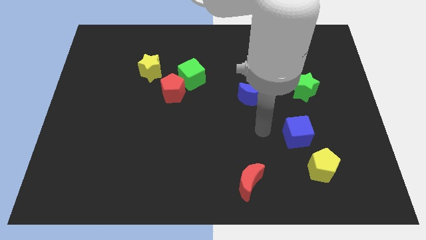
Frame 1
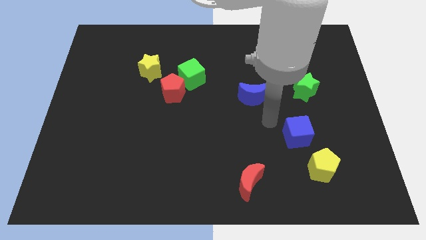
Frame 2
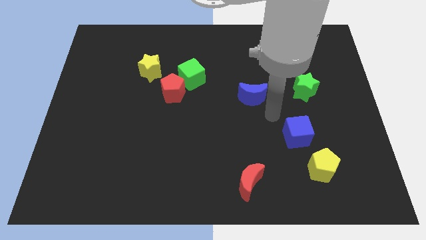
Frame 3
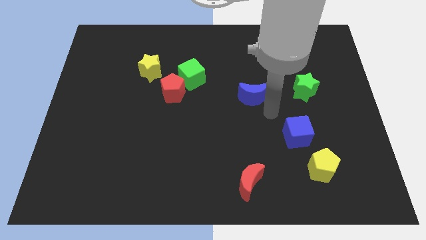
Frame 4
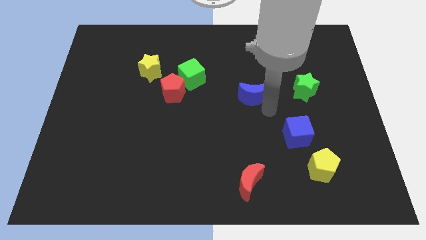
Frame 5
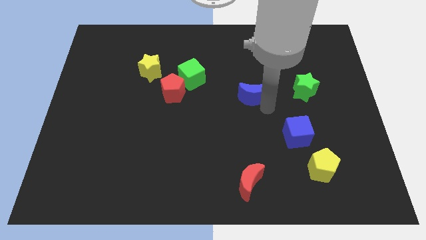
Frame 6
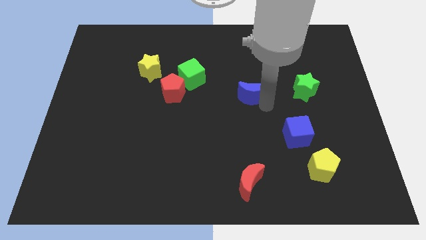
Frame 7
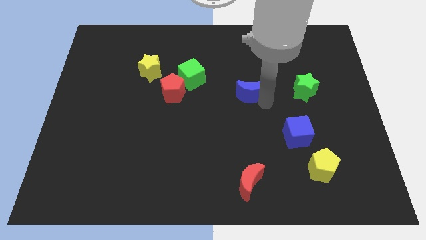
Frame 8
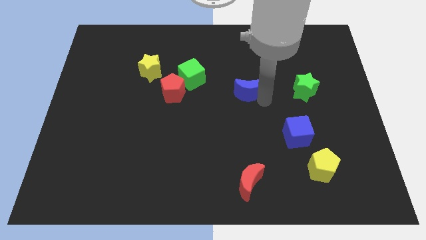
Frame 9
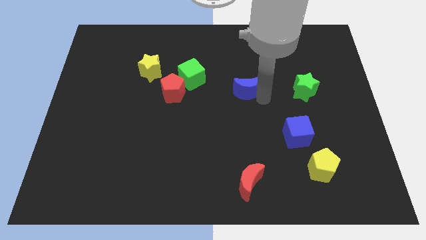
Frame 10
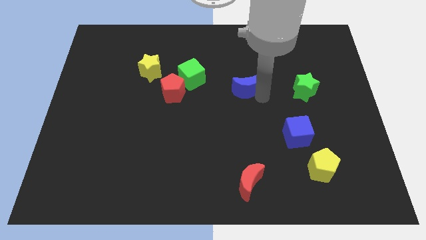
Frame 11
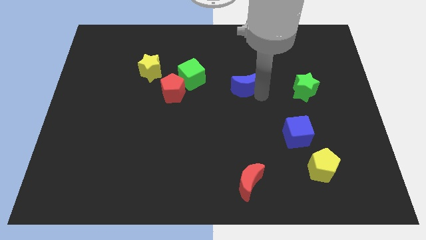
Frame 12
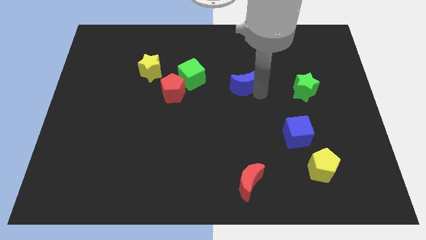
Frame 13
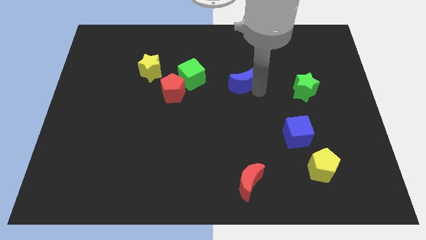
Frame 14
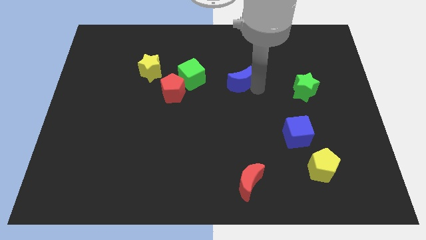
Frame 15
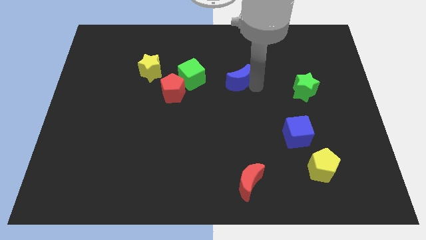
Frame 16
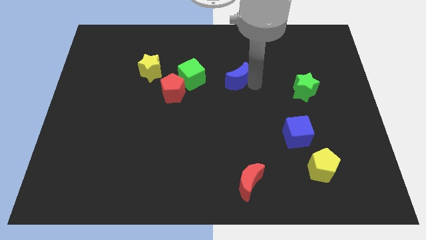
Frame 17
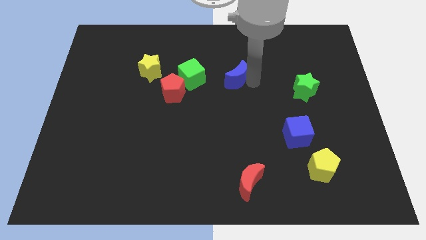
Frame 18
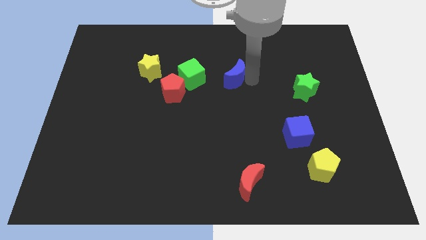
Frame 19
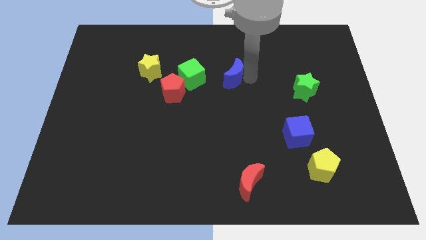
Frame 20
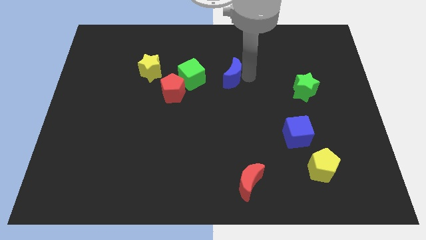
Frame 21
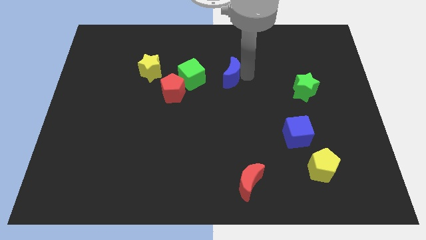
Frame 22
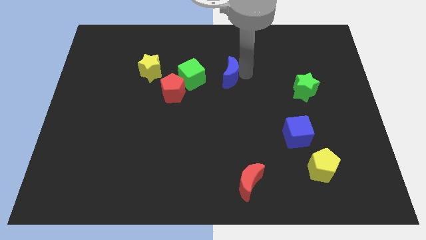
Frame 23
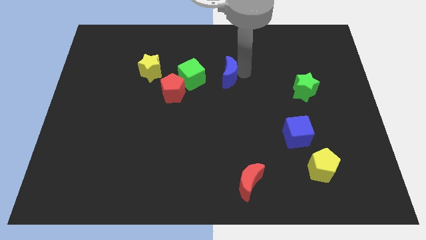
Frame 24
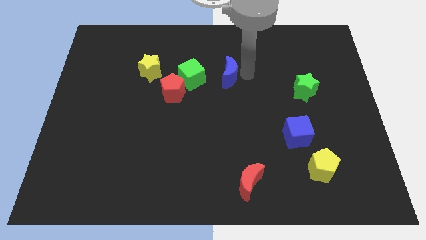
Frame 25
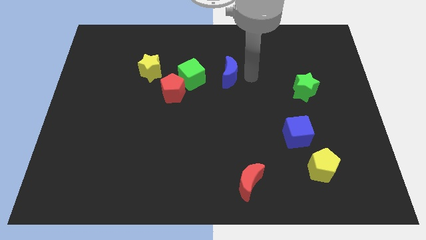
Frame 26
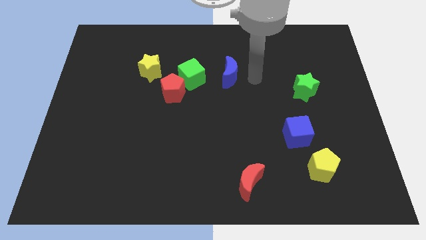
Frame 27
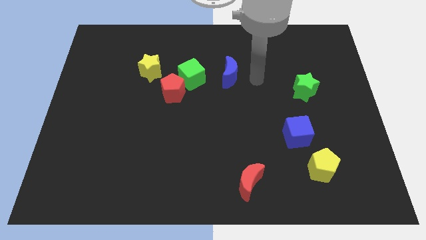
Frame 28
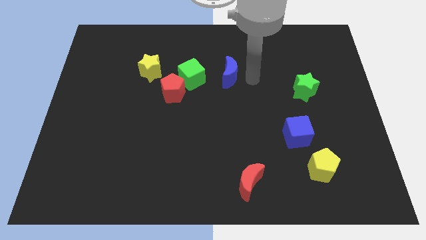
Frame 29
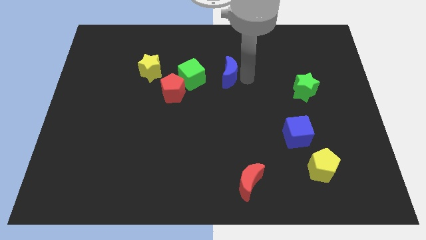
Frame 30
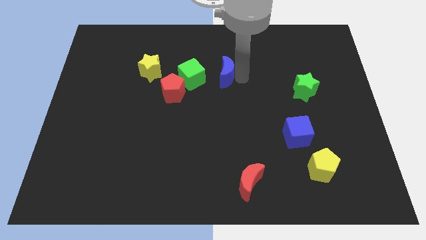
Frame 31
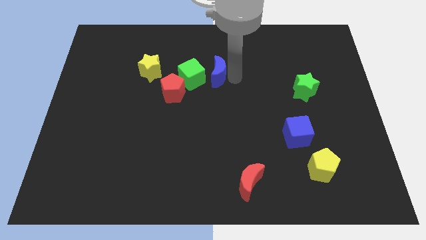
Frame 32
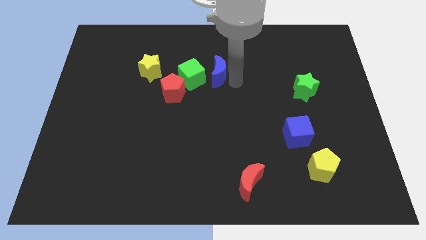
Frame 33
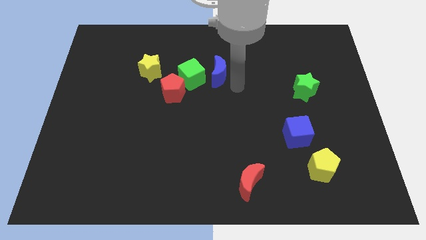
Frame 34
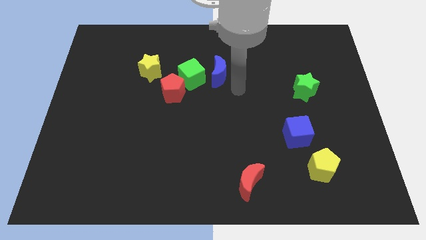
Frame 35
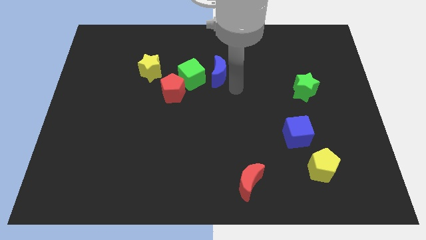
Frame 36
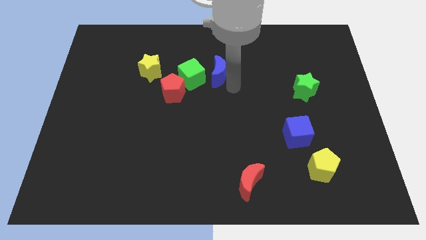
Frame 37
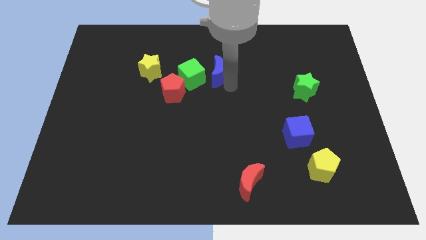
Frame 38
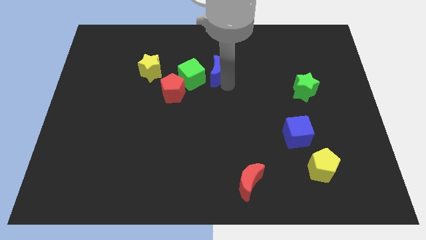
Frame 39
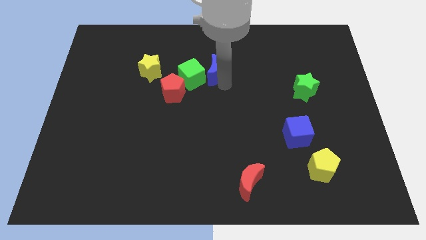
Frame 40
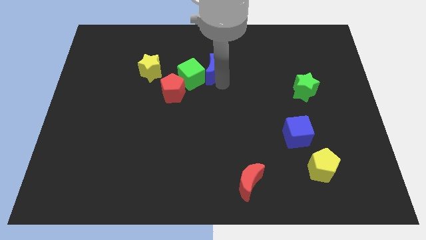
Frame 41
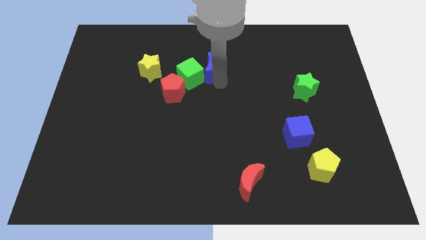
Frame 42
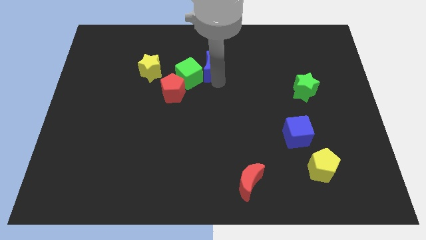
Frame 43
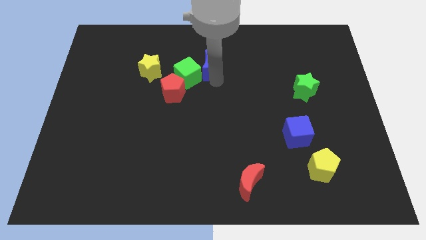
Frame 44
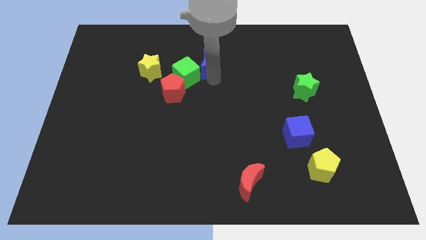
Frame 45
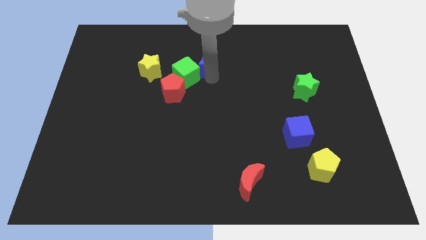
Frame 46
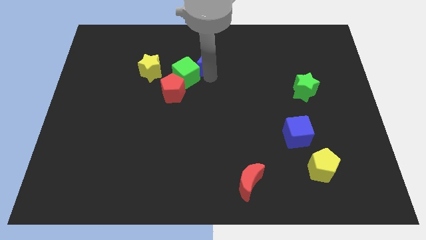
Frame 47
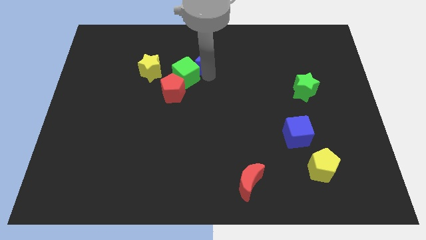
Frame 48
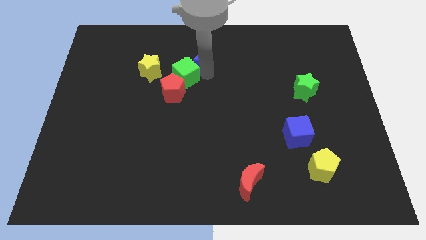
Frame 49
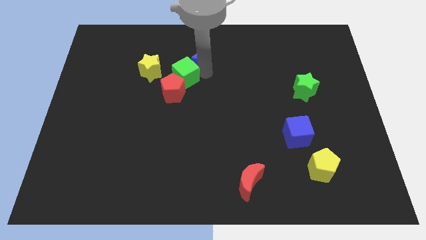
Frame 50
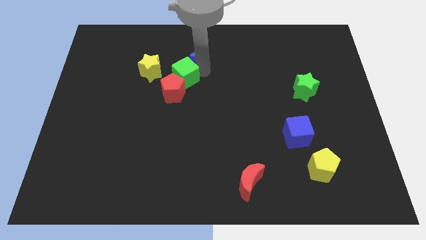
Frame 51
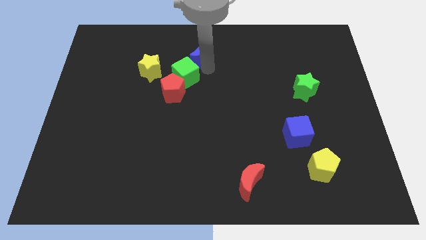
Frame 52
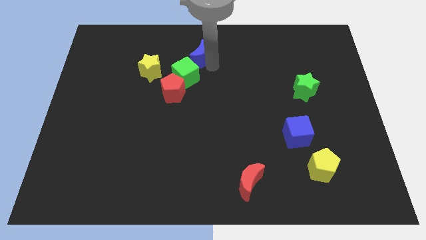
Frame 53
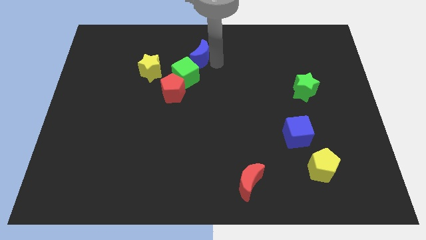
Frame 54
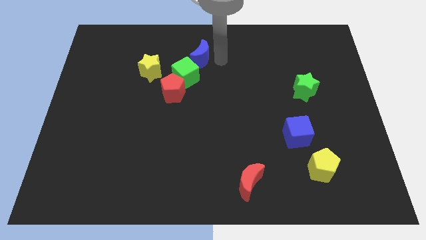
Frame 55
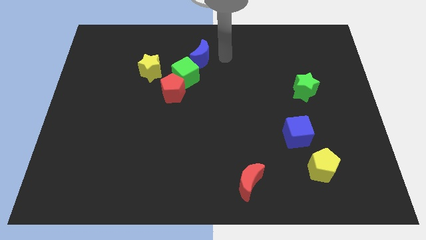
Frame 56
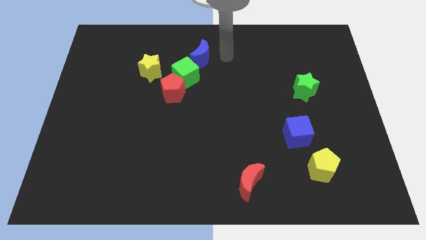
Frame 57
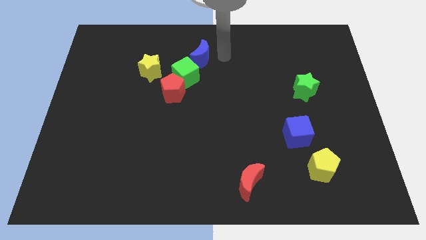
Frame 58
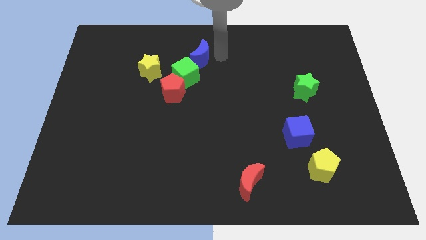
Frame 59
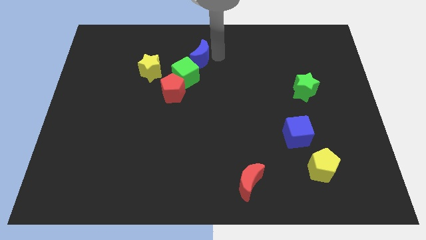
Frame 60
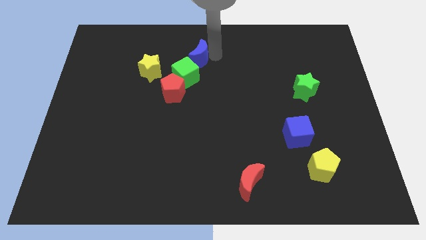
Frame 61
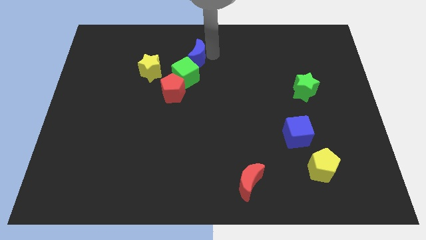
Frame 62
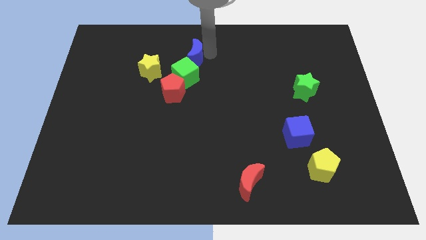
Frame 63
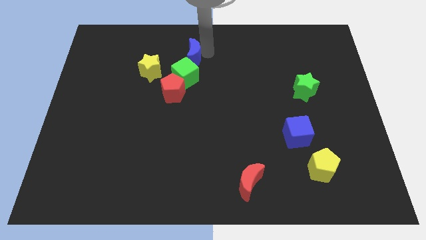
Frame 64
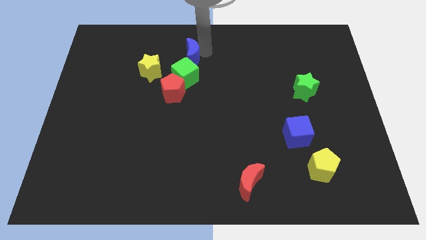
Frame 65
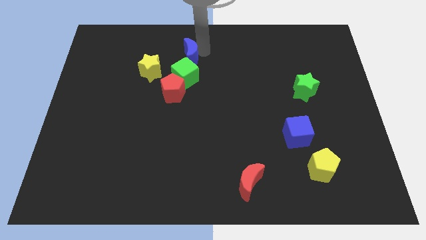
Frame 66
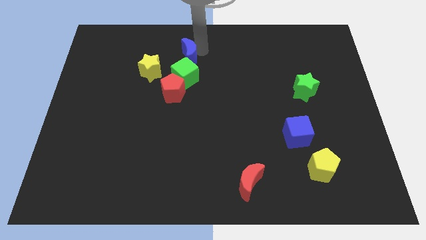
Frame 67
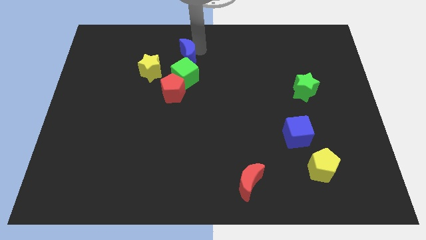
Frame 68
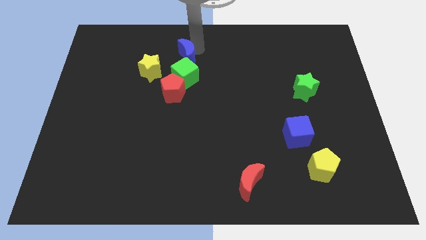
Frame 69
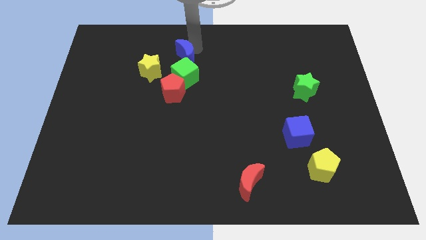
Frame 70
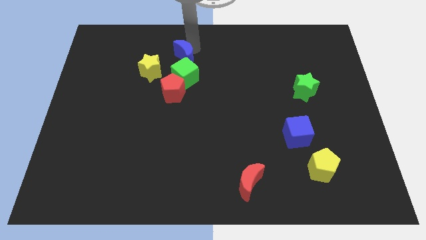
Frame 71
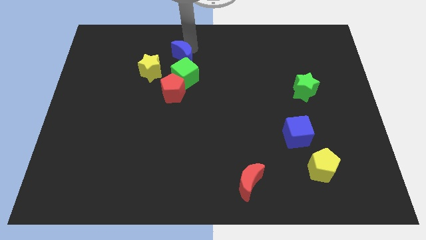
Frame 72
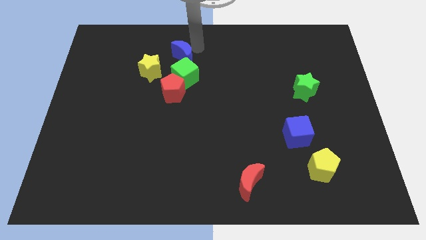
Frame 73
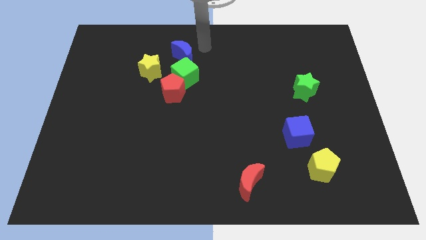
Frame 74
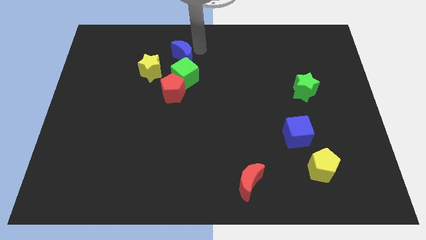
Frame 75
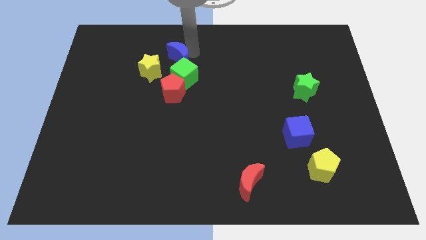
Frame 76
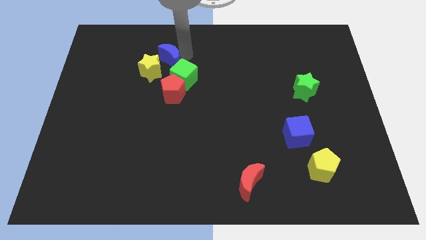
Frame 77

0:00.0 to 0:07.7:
move the blue moon close to the yellow star
